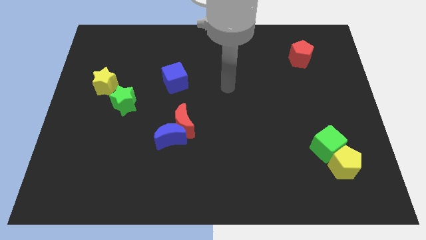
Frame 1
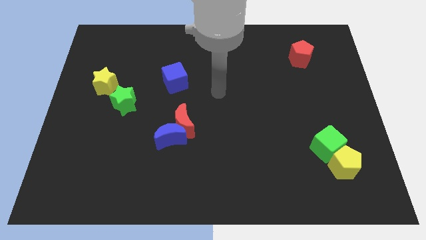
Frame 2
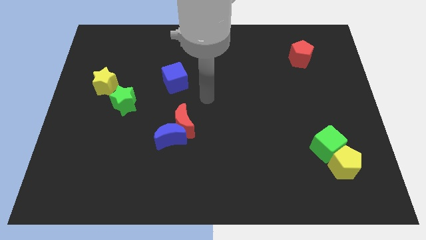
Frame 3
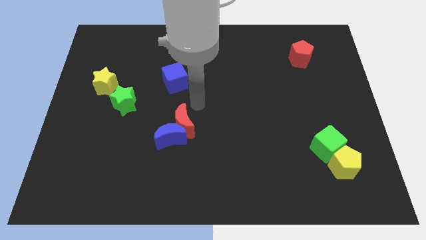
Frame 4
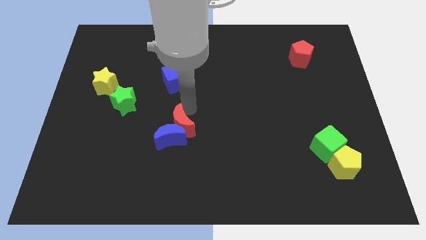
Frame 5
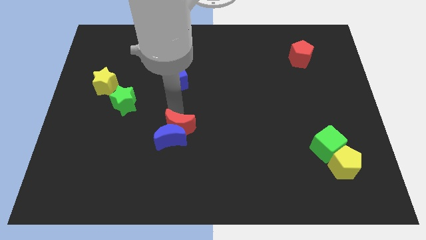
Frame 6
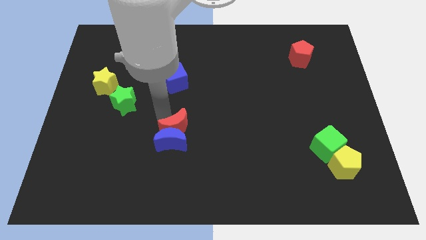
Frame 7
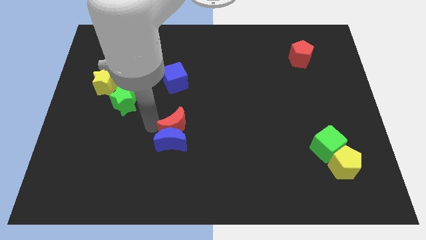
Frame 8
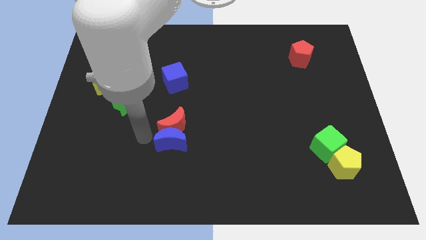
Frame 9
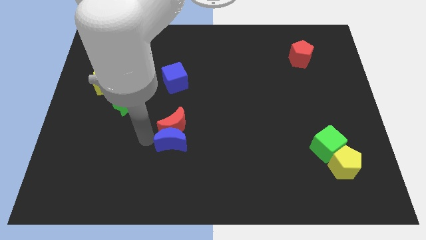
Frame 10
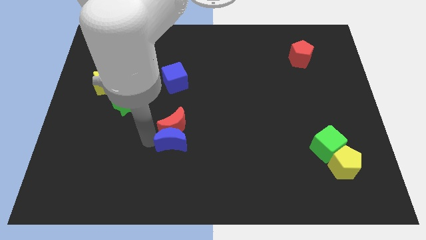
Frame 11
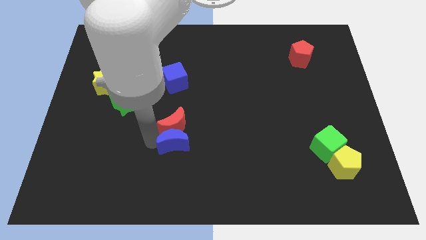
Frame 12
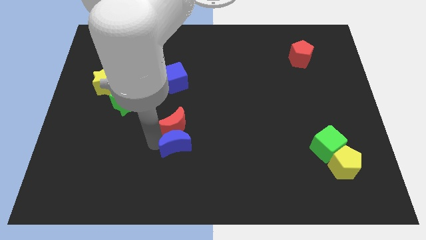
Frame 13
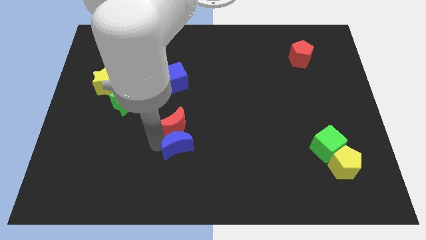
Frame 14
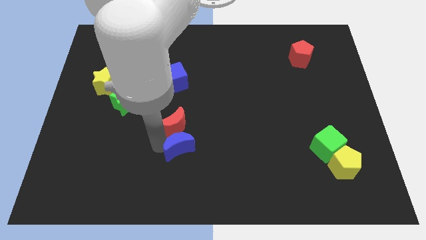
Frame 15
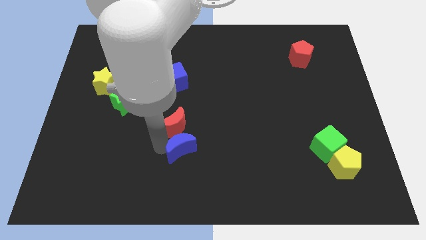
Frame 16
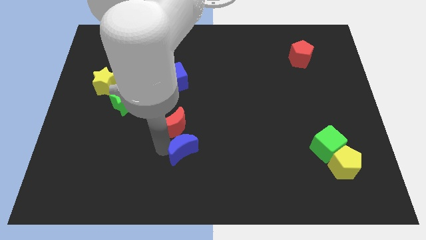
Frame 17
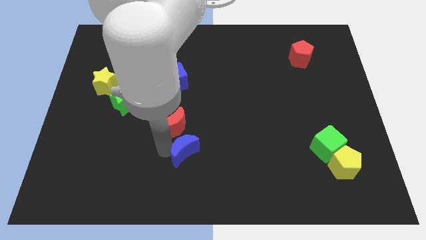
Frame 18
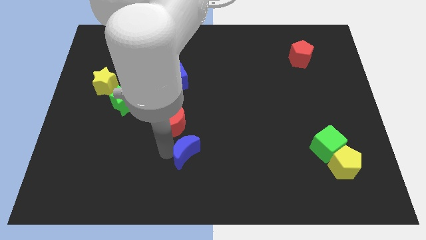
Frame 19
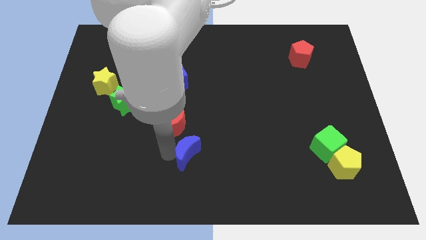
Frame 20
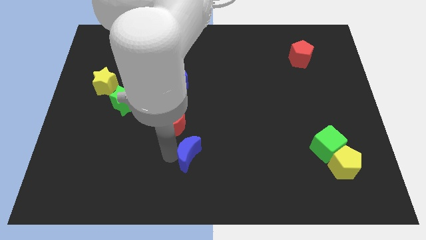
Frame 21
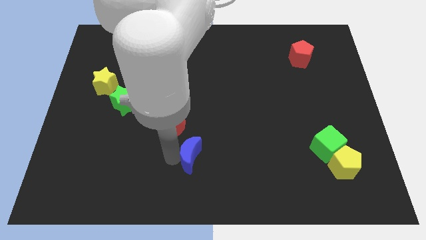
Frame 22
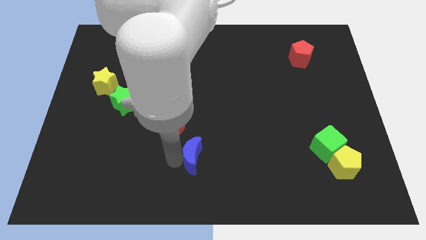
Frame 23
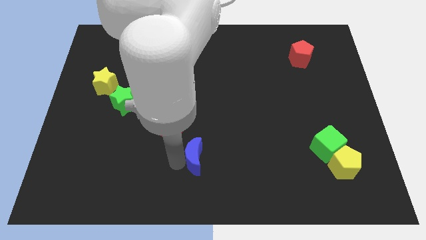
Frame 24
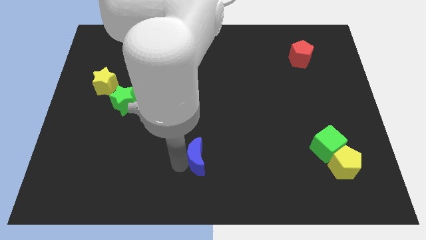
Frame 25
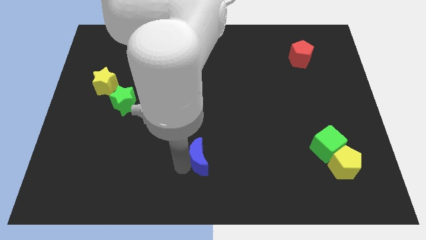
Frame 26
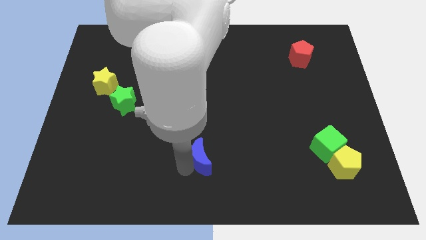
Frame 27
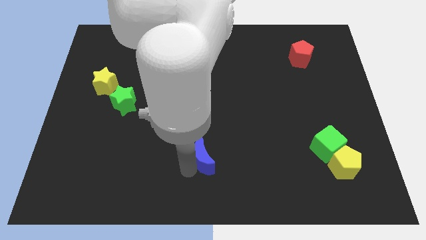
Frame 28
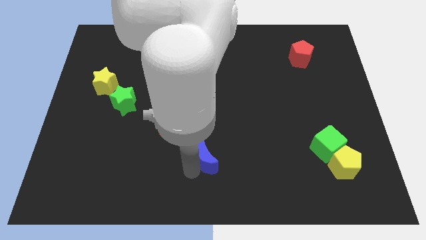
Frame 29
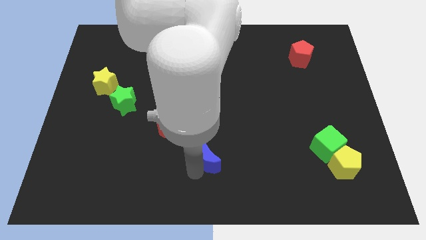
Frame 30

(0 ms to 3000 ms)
push the blue moon slightly to the right

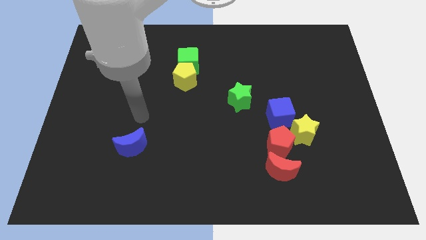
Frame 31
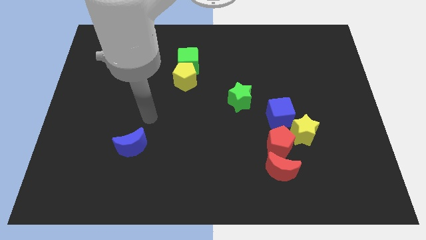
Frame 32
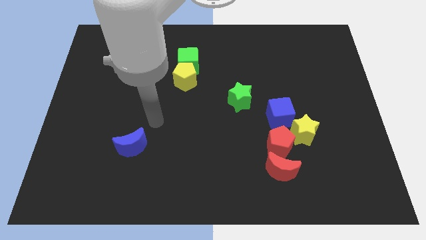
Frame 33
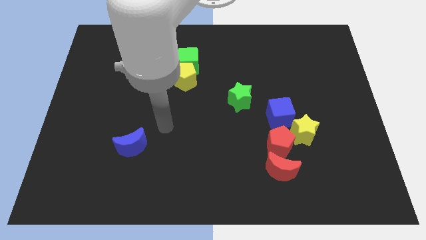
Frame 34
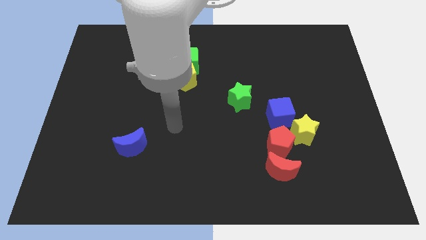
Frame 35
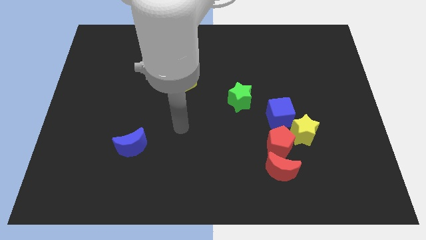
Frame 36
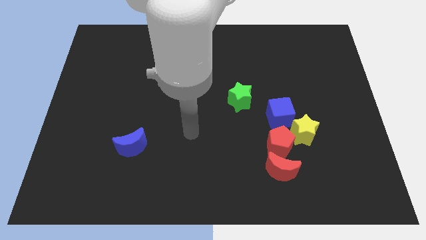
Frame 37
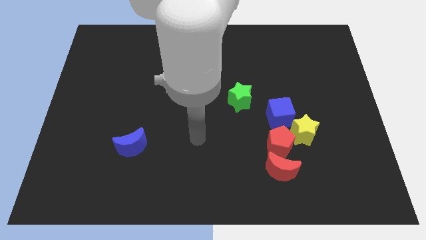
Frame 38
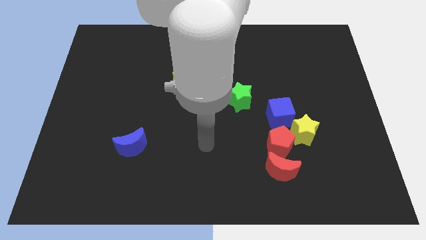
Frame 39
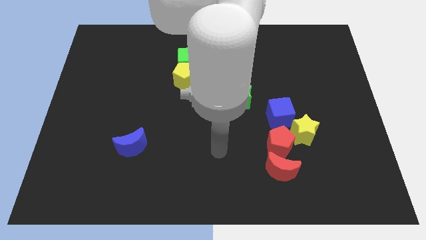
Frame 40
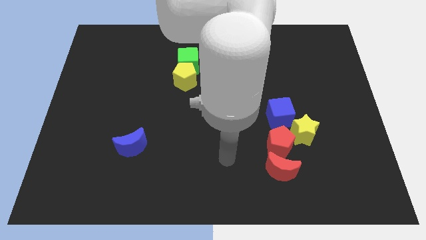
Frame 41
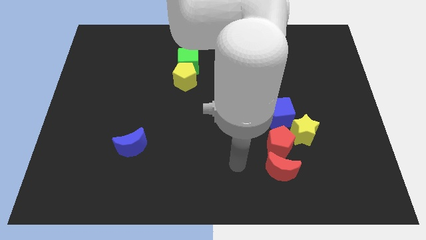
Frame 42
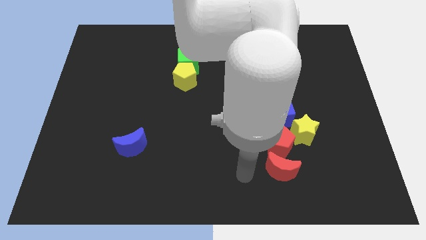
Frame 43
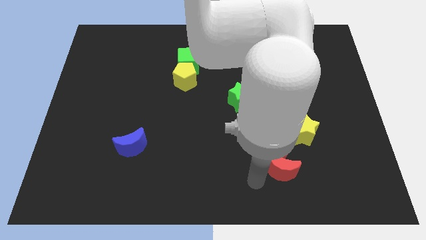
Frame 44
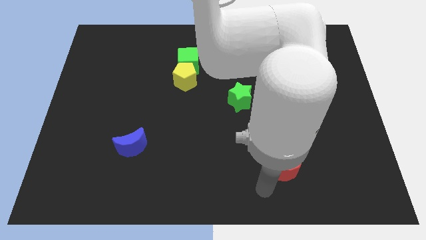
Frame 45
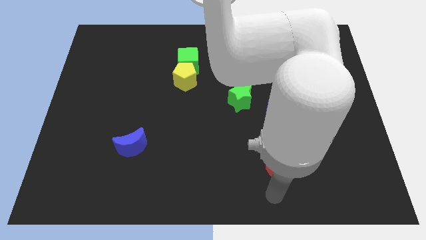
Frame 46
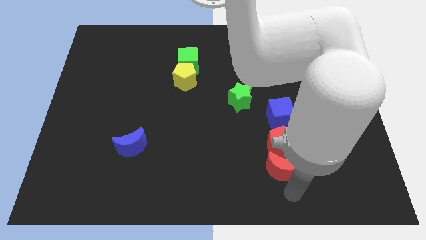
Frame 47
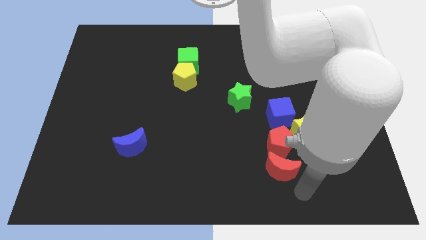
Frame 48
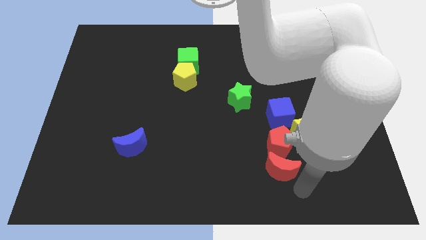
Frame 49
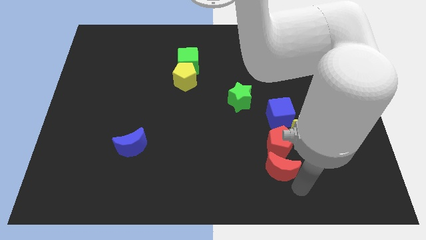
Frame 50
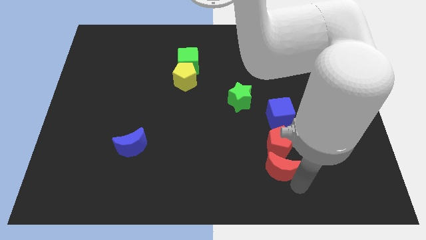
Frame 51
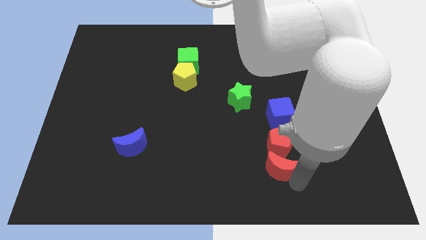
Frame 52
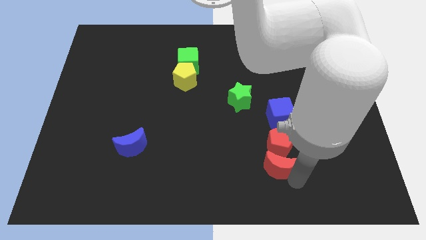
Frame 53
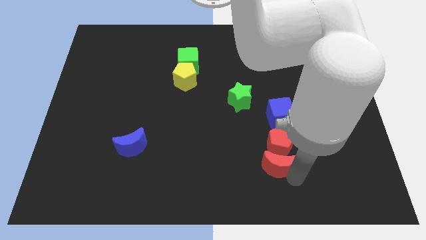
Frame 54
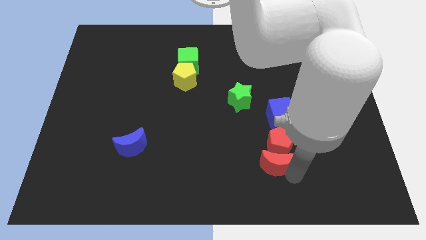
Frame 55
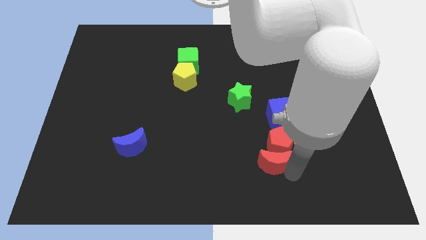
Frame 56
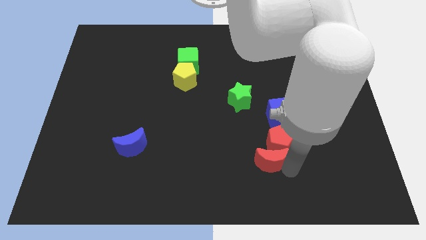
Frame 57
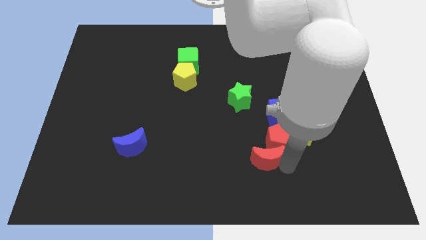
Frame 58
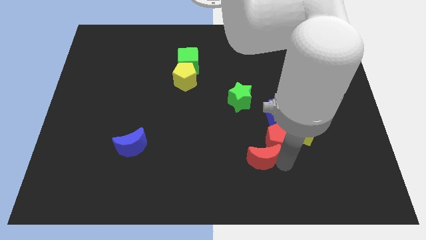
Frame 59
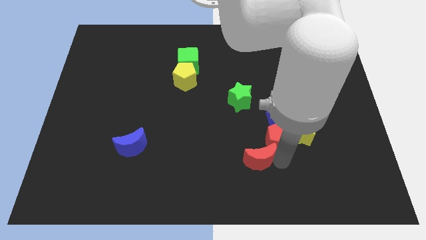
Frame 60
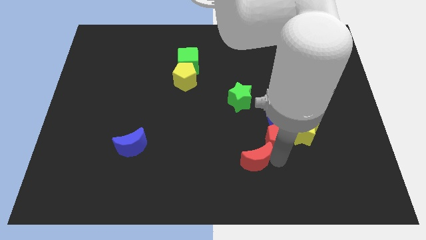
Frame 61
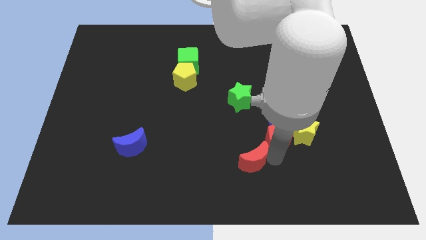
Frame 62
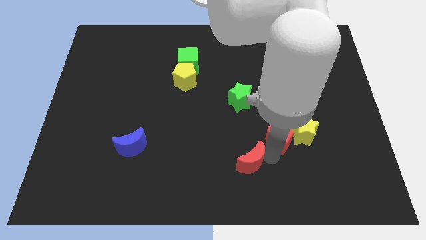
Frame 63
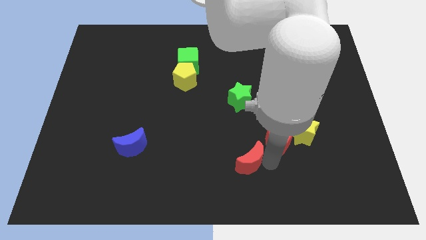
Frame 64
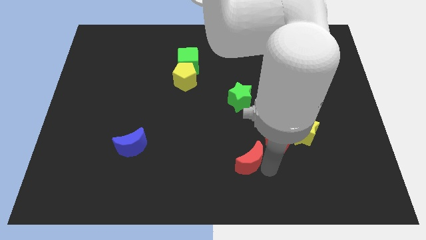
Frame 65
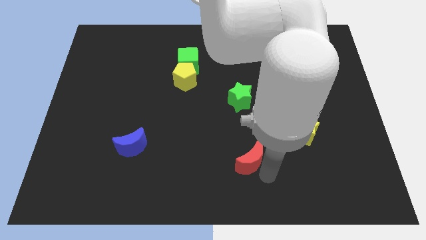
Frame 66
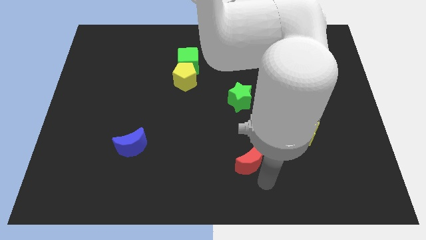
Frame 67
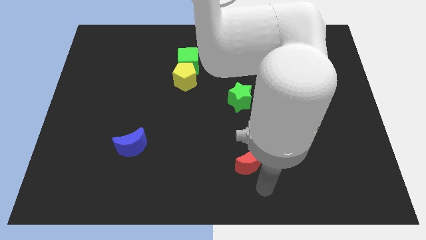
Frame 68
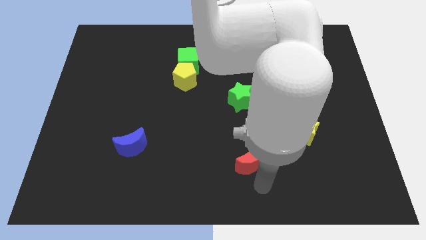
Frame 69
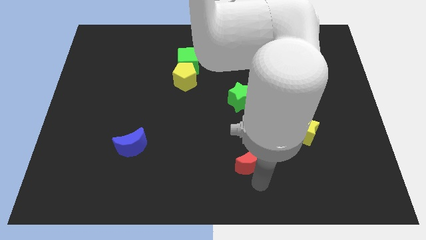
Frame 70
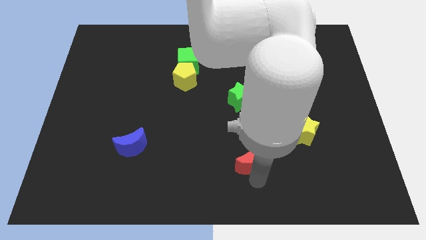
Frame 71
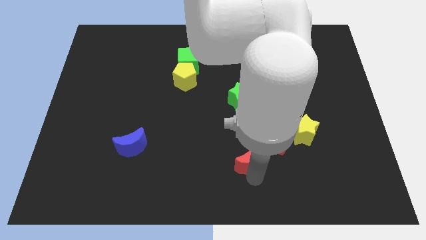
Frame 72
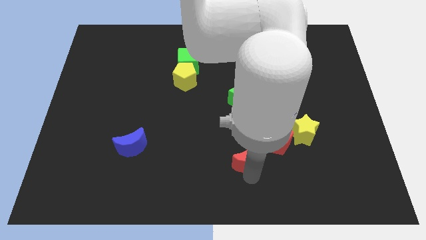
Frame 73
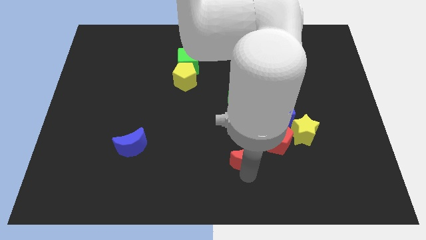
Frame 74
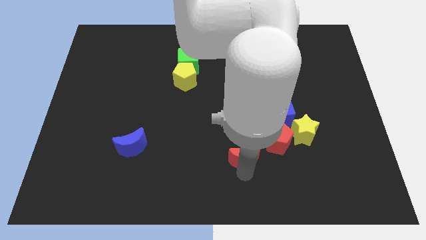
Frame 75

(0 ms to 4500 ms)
move the red moon a bit diagonally upwards and to the left

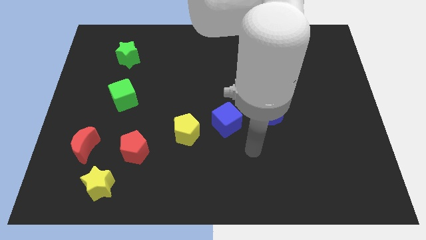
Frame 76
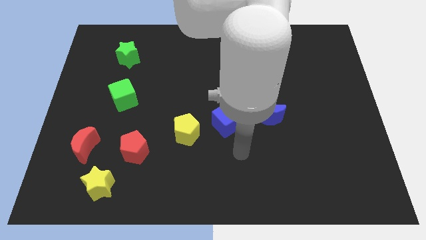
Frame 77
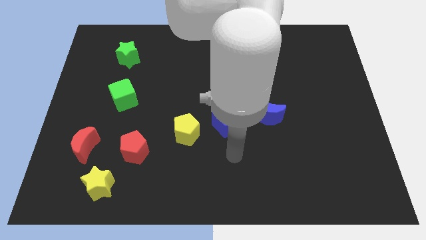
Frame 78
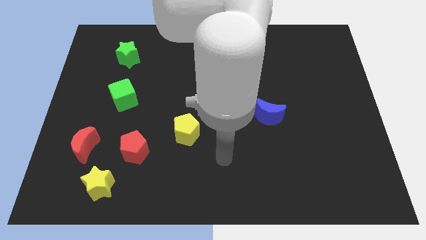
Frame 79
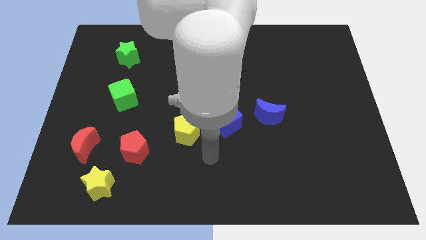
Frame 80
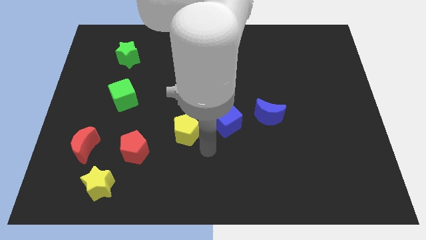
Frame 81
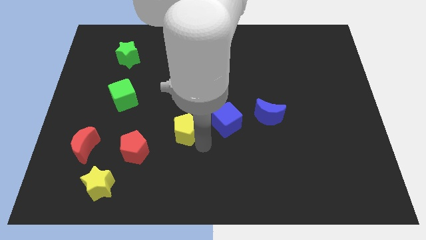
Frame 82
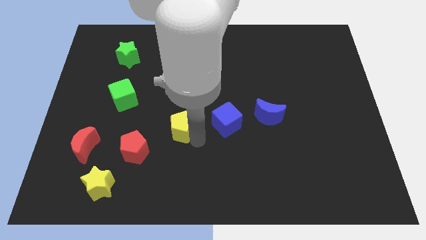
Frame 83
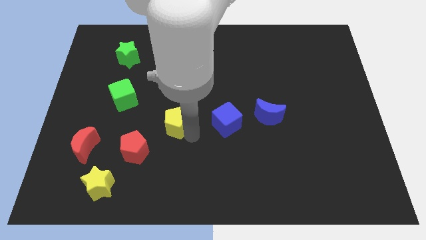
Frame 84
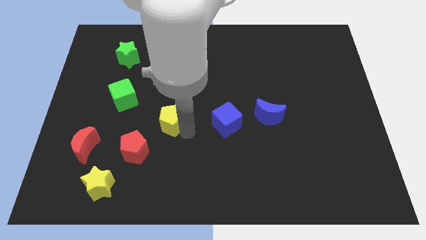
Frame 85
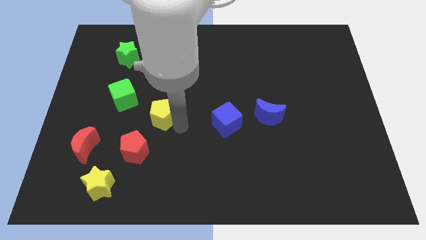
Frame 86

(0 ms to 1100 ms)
move the yellow pentagon upwards and to the left diagonally a little
